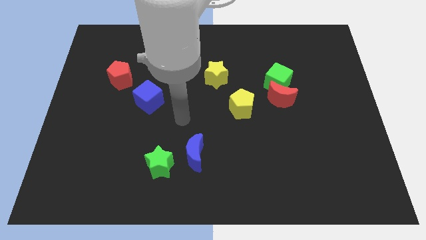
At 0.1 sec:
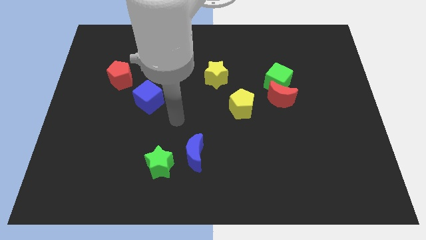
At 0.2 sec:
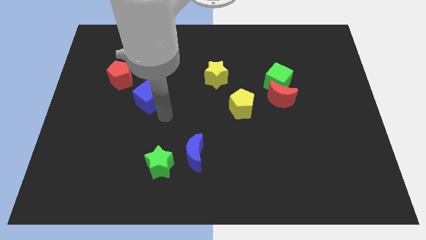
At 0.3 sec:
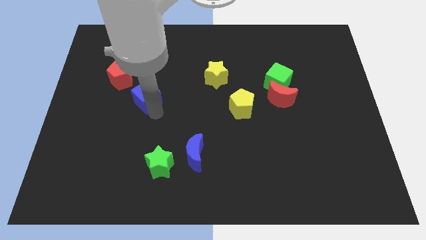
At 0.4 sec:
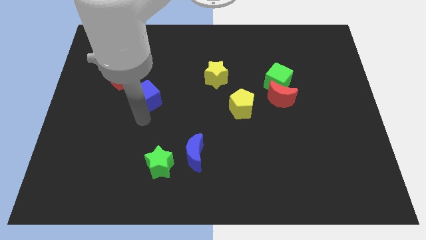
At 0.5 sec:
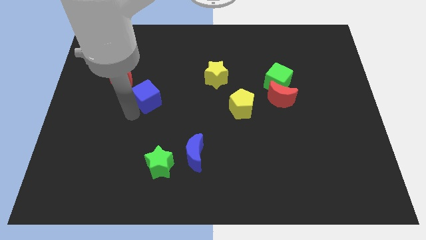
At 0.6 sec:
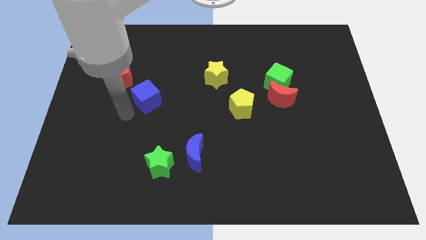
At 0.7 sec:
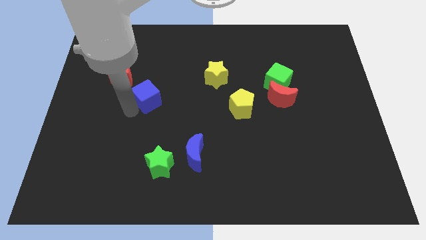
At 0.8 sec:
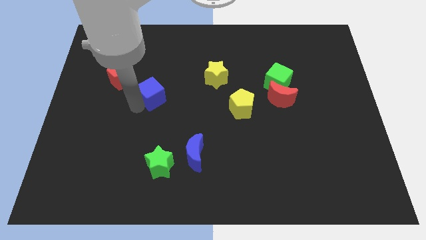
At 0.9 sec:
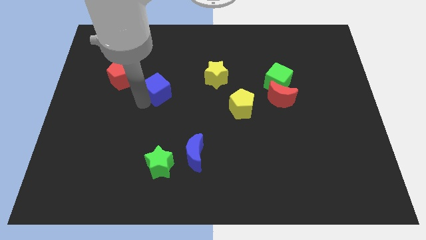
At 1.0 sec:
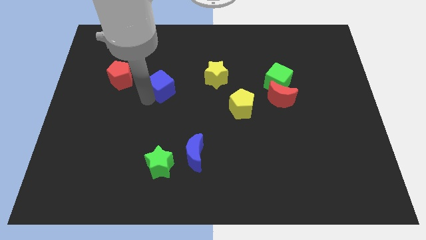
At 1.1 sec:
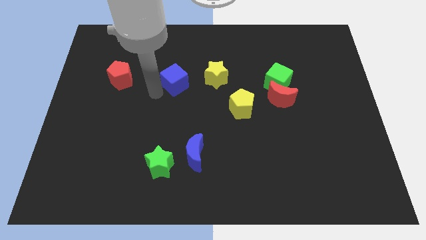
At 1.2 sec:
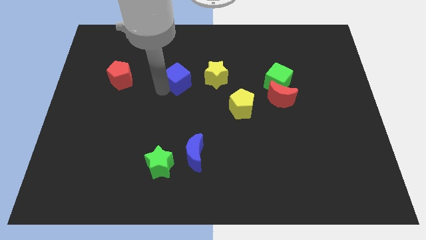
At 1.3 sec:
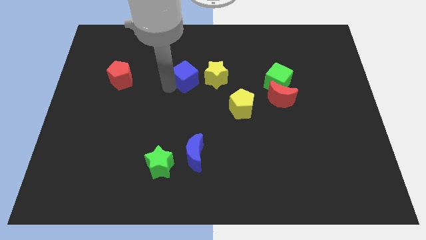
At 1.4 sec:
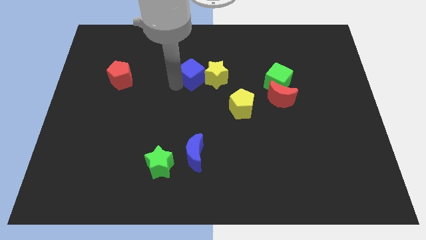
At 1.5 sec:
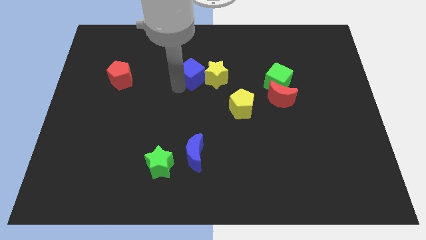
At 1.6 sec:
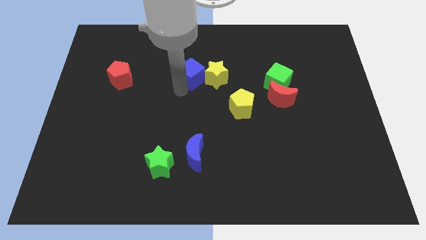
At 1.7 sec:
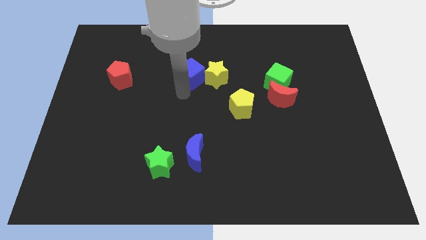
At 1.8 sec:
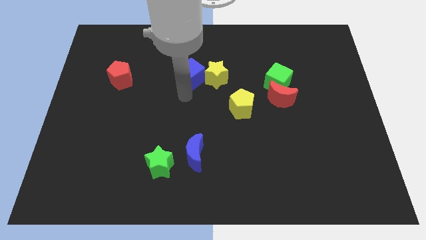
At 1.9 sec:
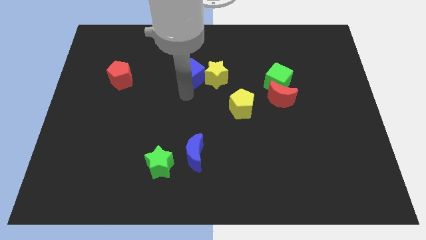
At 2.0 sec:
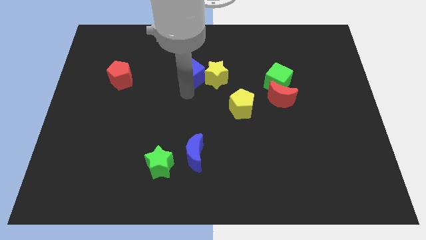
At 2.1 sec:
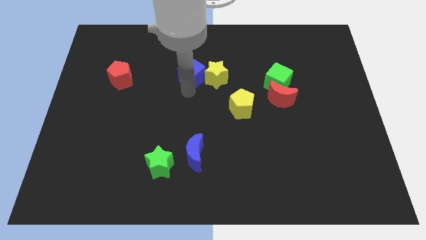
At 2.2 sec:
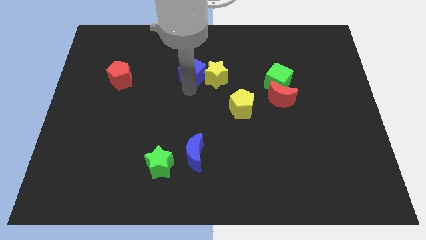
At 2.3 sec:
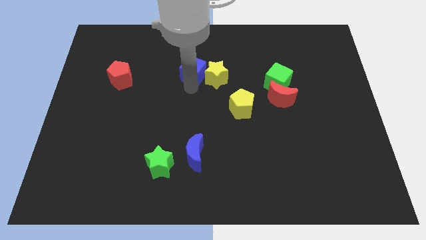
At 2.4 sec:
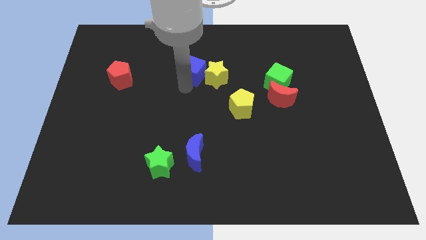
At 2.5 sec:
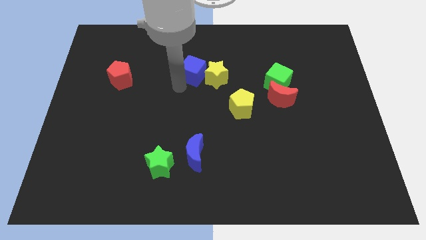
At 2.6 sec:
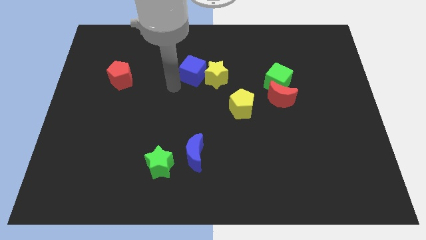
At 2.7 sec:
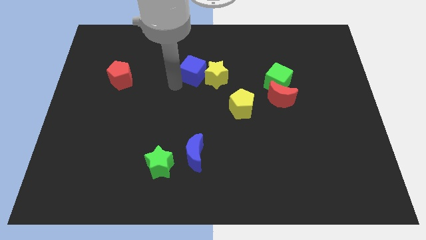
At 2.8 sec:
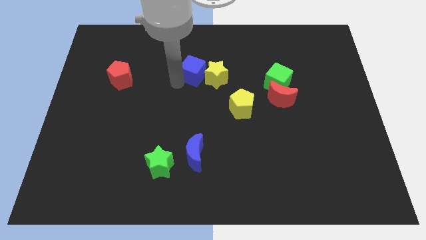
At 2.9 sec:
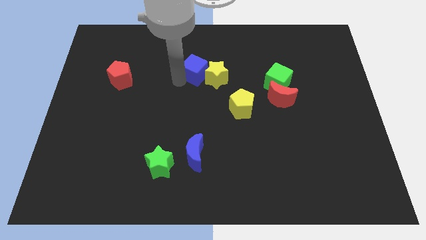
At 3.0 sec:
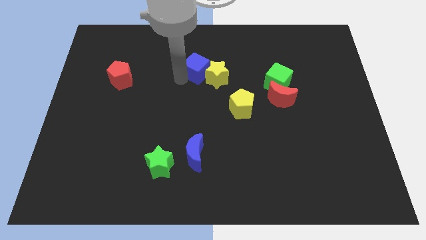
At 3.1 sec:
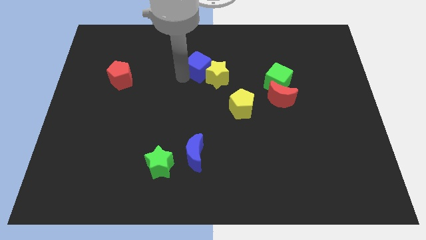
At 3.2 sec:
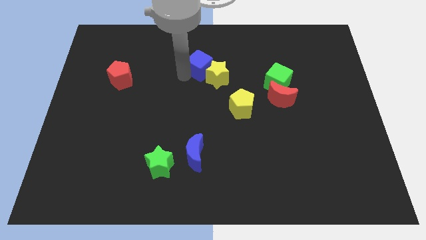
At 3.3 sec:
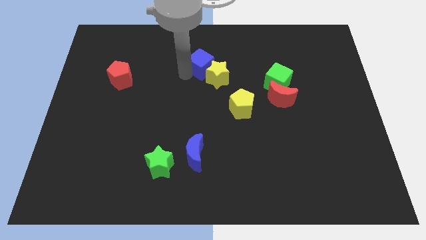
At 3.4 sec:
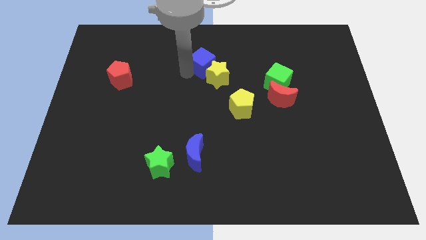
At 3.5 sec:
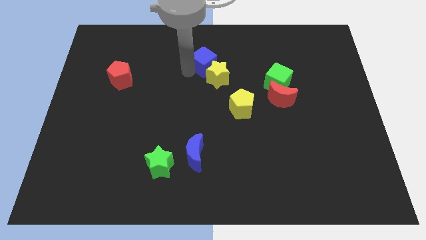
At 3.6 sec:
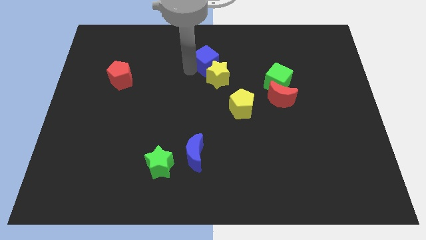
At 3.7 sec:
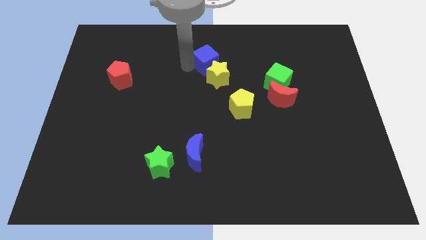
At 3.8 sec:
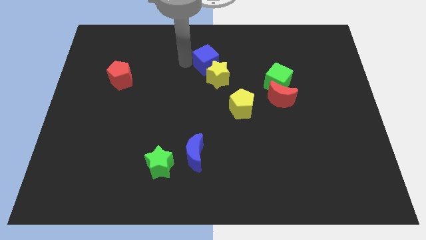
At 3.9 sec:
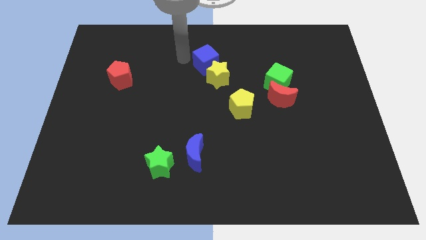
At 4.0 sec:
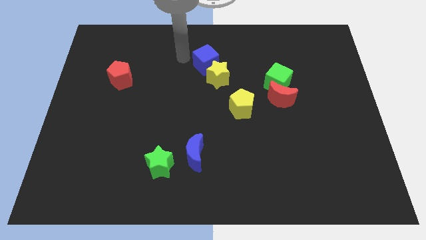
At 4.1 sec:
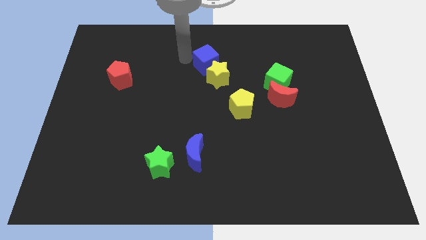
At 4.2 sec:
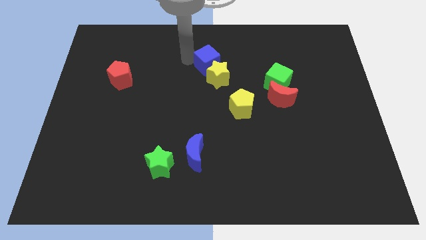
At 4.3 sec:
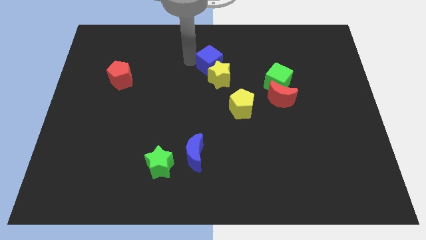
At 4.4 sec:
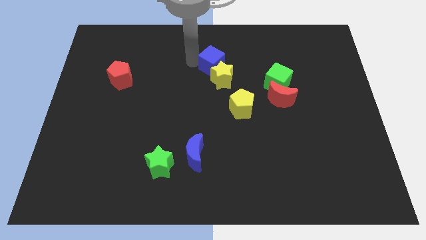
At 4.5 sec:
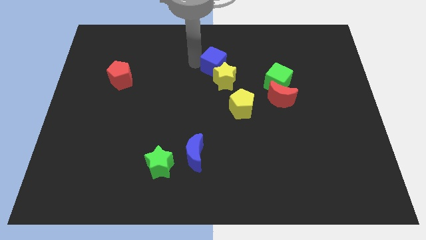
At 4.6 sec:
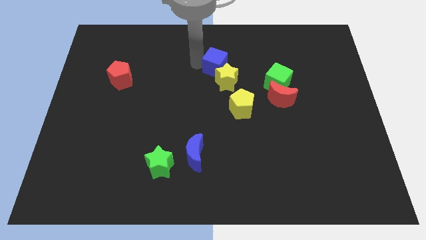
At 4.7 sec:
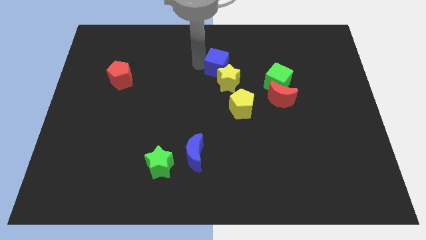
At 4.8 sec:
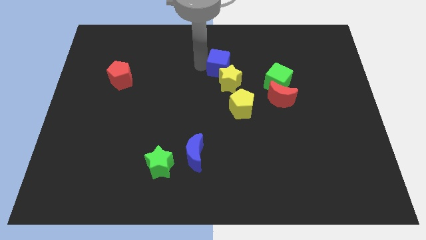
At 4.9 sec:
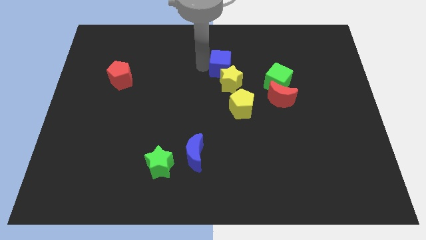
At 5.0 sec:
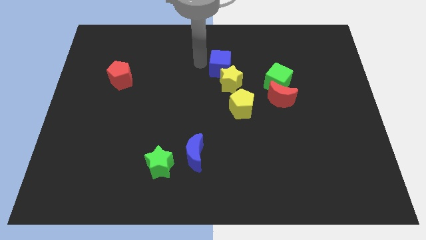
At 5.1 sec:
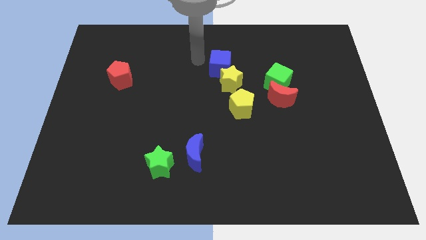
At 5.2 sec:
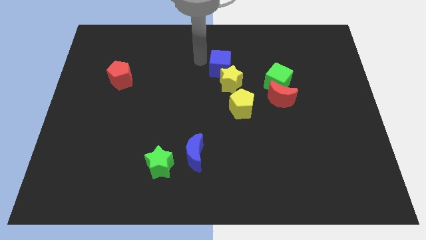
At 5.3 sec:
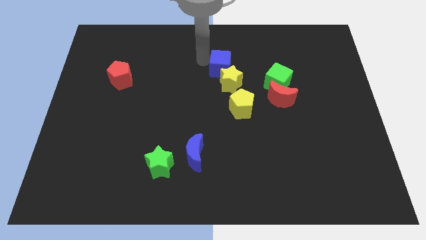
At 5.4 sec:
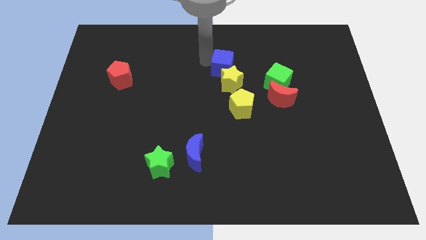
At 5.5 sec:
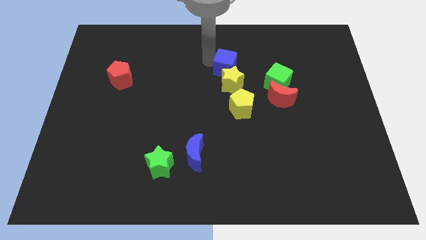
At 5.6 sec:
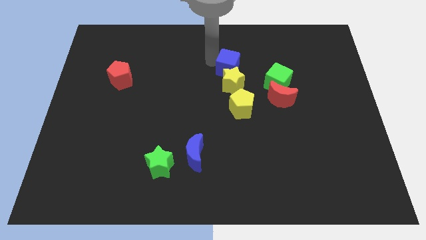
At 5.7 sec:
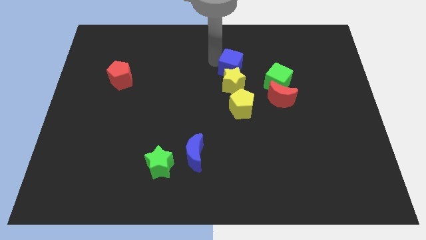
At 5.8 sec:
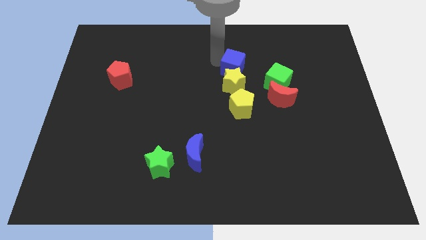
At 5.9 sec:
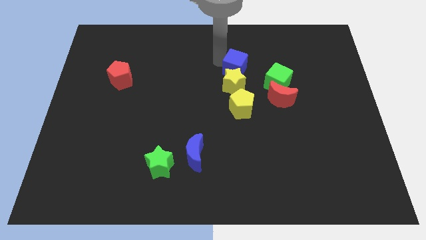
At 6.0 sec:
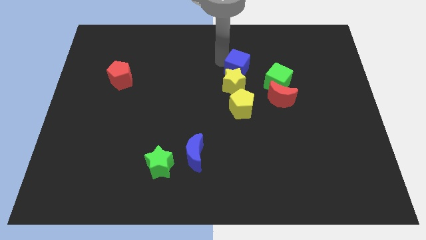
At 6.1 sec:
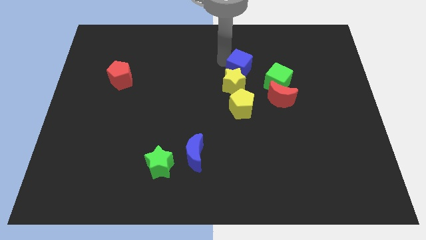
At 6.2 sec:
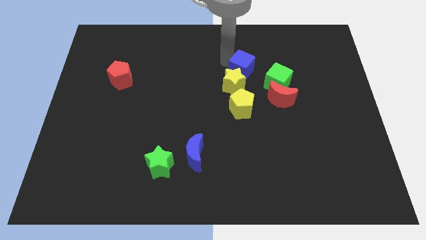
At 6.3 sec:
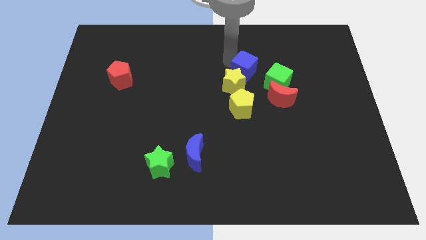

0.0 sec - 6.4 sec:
push the blue cube to the top left of the red moon

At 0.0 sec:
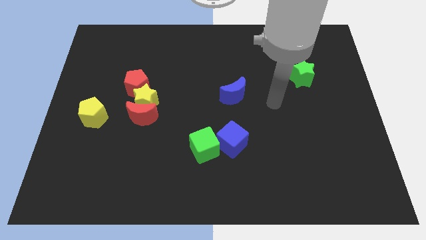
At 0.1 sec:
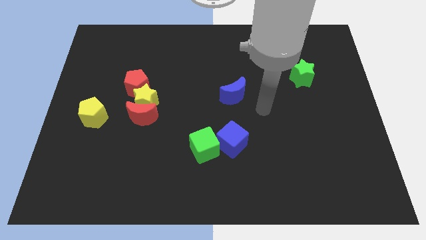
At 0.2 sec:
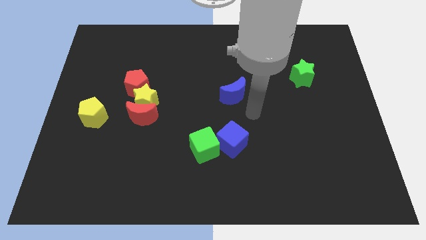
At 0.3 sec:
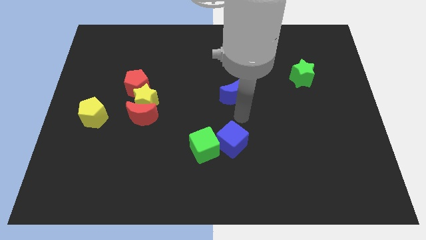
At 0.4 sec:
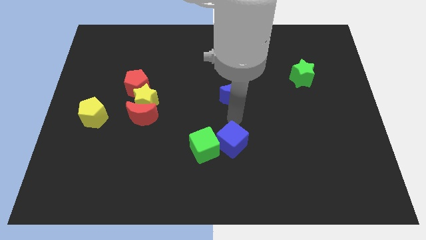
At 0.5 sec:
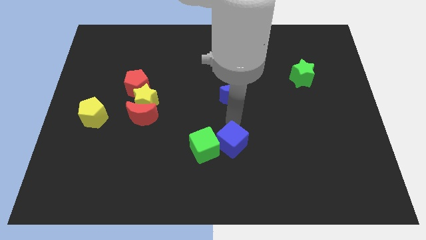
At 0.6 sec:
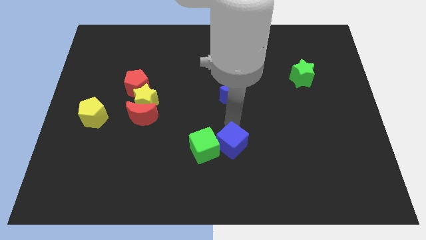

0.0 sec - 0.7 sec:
put the blue cube diagonally down and to the right of the green cube

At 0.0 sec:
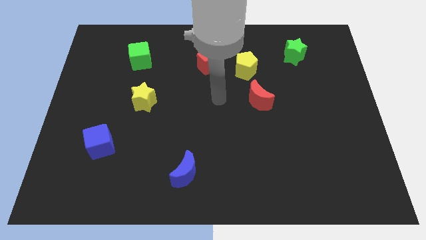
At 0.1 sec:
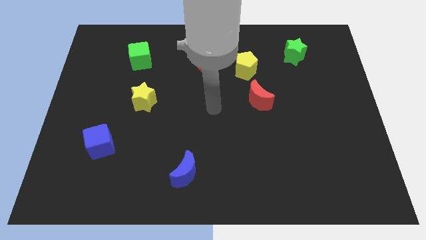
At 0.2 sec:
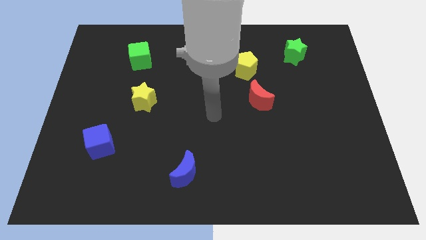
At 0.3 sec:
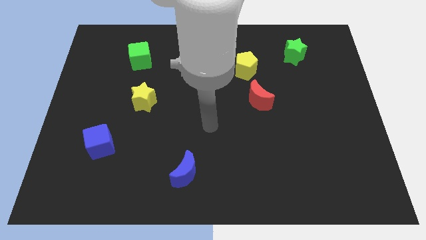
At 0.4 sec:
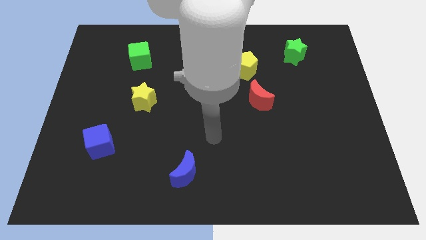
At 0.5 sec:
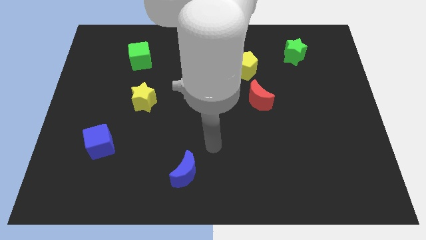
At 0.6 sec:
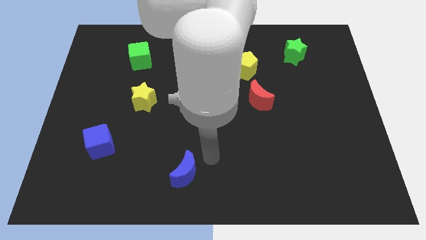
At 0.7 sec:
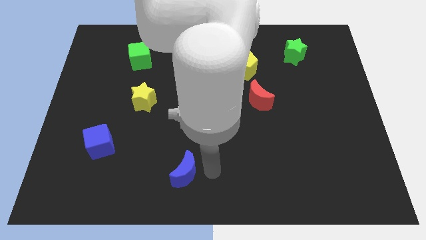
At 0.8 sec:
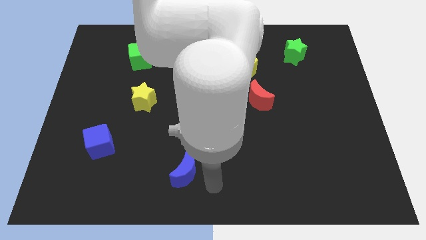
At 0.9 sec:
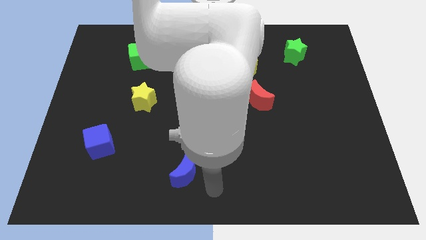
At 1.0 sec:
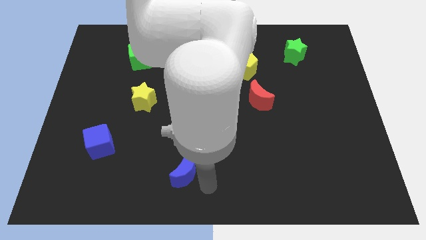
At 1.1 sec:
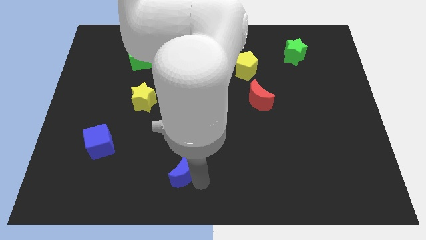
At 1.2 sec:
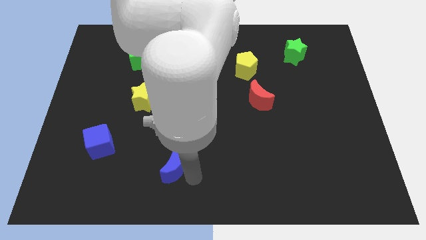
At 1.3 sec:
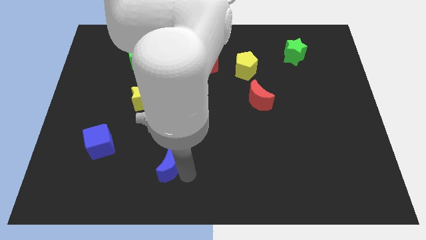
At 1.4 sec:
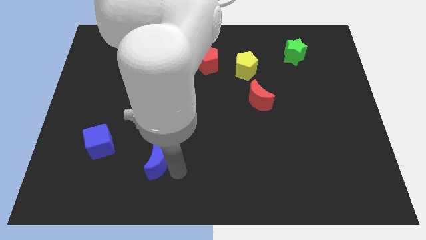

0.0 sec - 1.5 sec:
put the blue moon to the right of the blue cube
